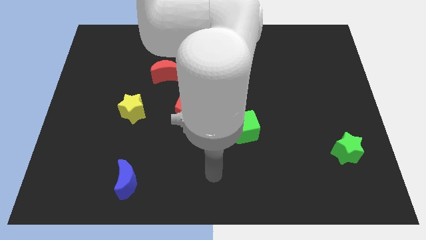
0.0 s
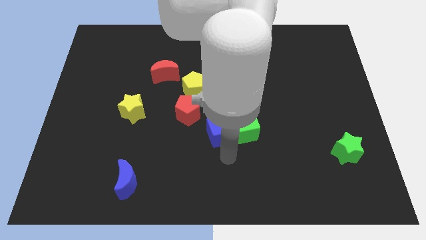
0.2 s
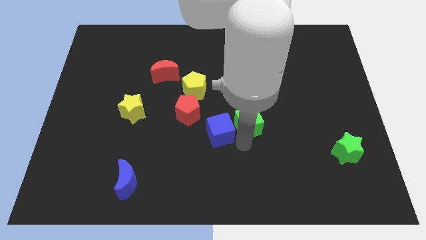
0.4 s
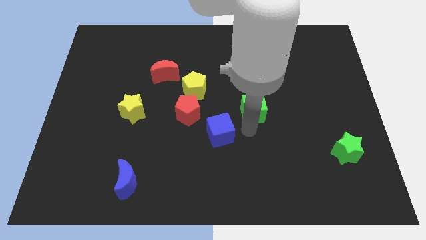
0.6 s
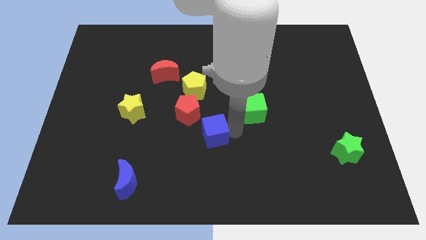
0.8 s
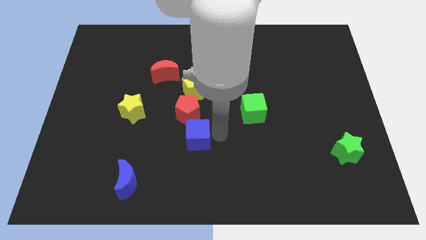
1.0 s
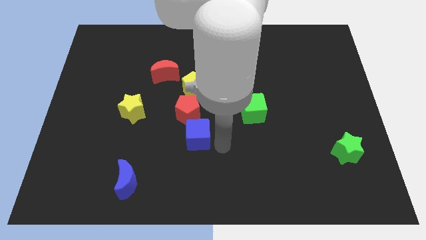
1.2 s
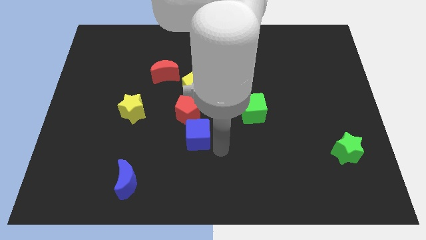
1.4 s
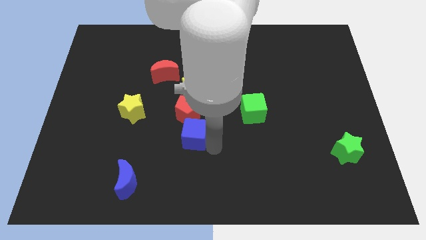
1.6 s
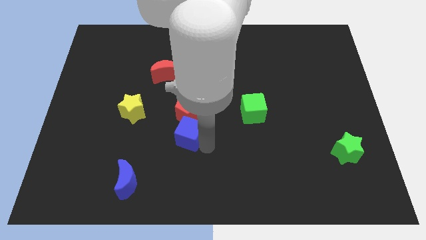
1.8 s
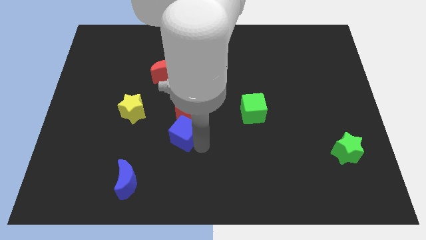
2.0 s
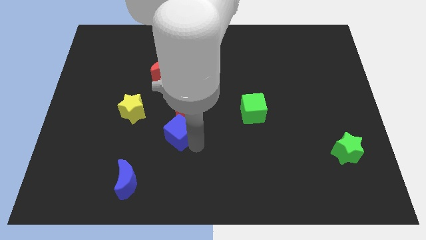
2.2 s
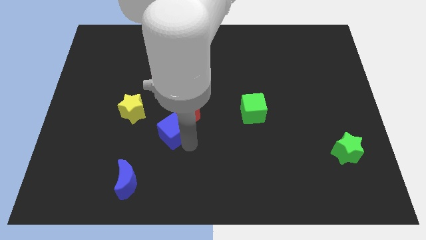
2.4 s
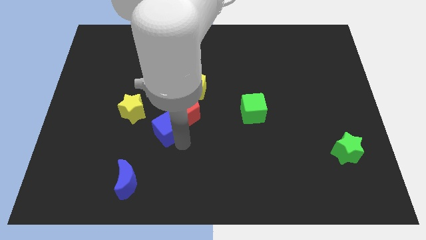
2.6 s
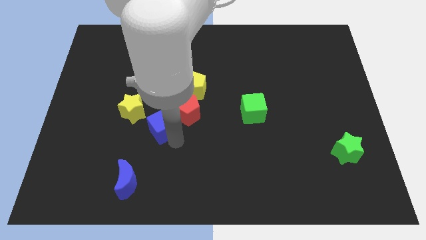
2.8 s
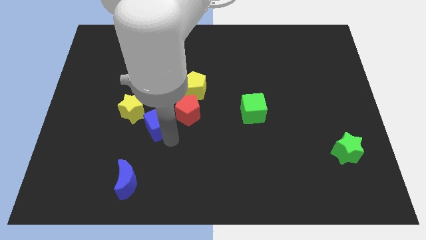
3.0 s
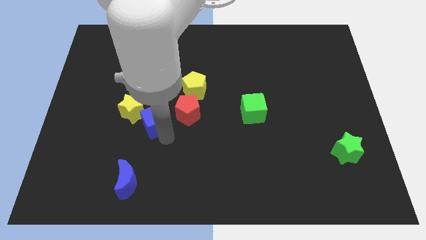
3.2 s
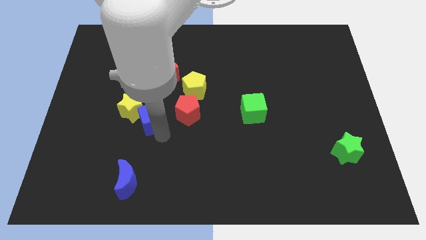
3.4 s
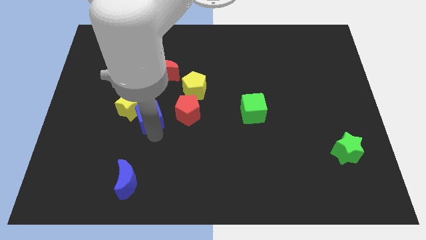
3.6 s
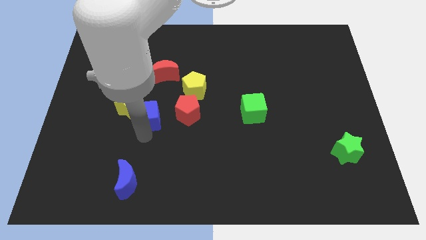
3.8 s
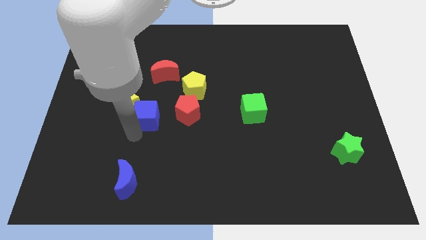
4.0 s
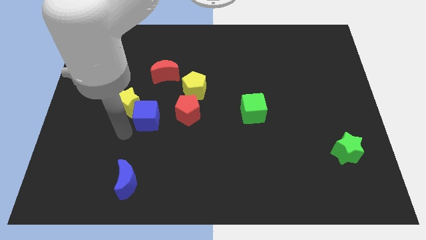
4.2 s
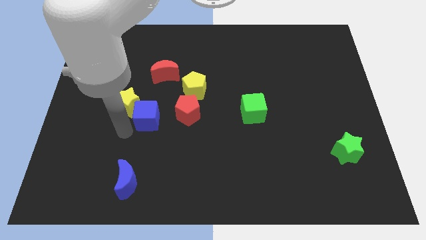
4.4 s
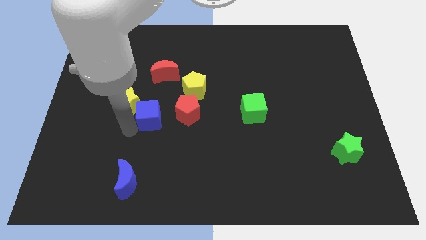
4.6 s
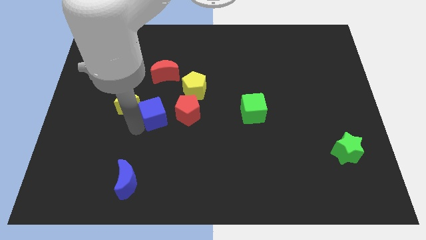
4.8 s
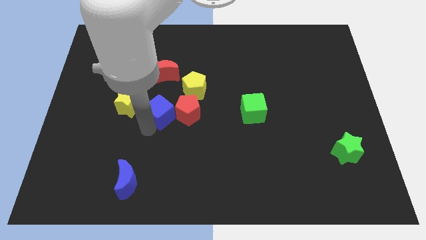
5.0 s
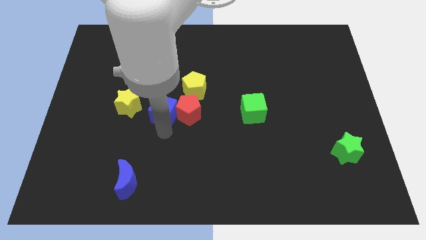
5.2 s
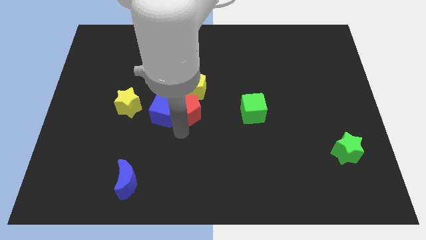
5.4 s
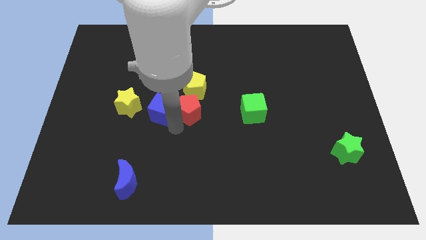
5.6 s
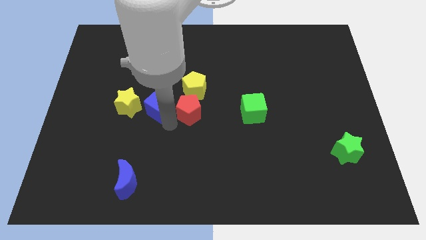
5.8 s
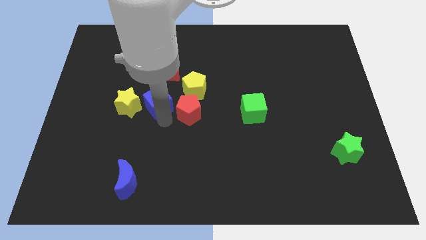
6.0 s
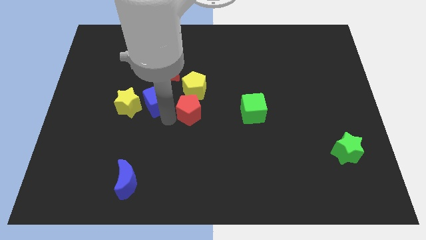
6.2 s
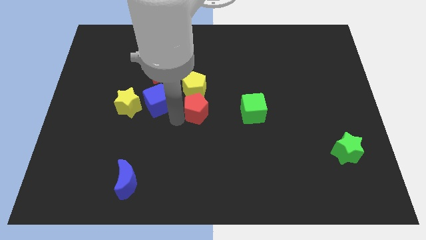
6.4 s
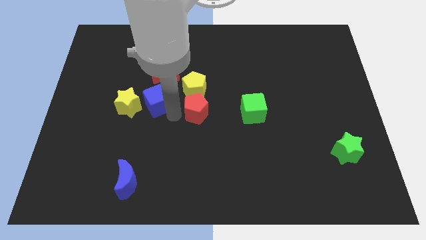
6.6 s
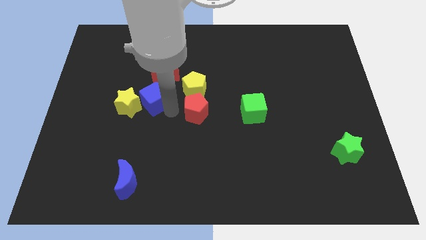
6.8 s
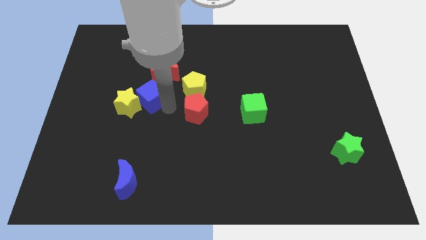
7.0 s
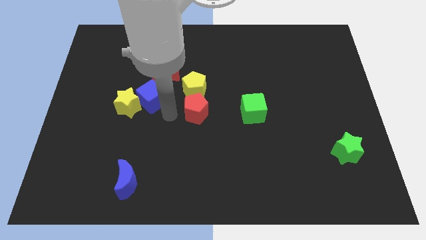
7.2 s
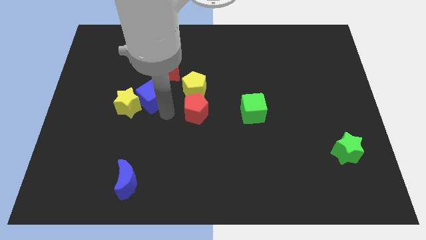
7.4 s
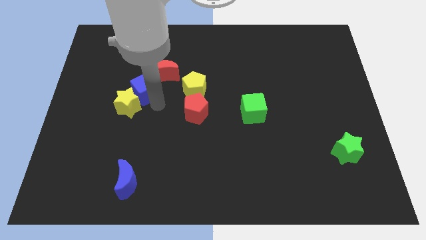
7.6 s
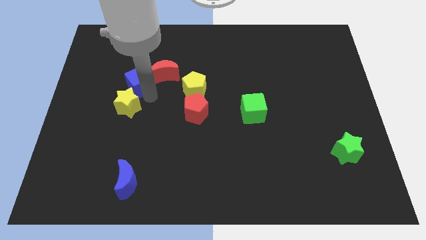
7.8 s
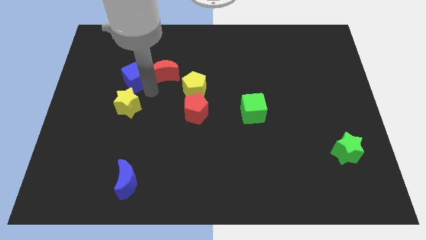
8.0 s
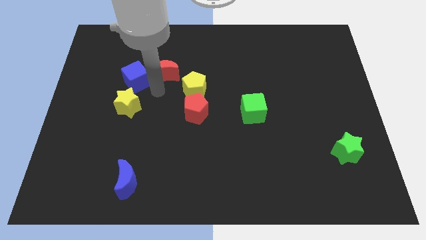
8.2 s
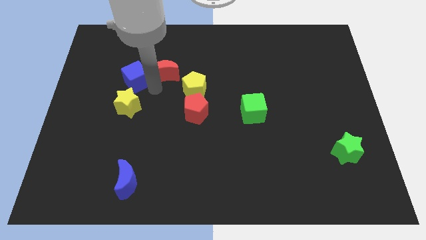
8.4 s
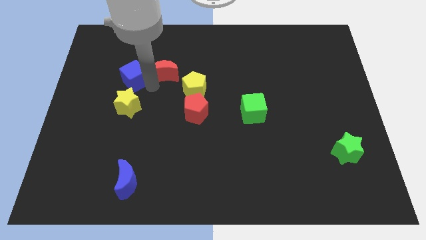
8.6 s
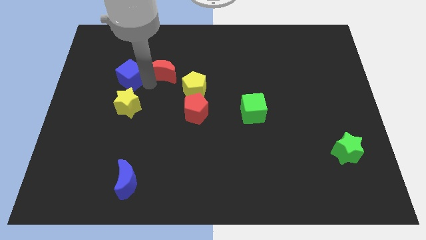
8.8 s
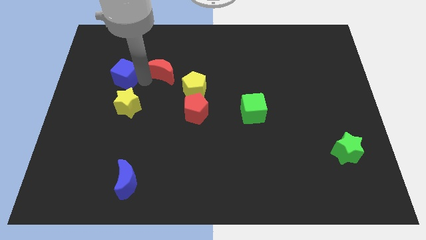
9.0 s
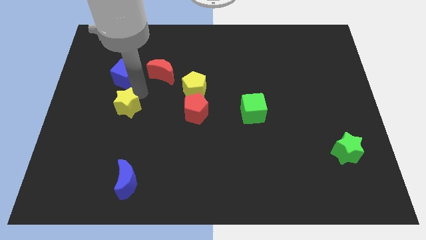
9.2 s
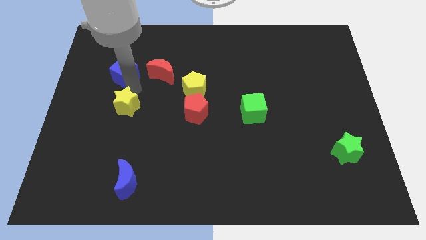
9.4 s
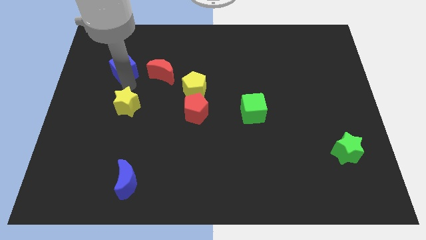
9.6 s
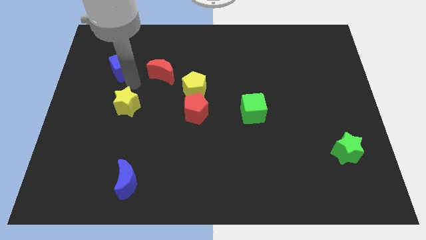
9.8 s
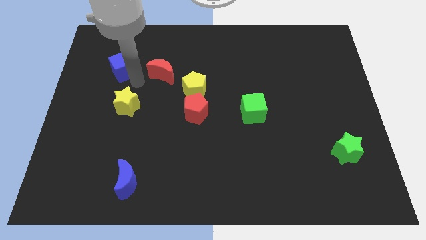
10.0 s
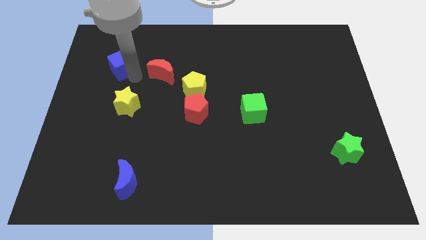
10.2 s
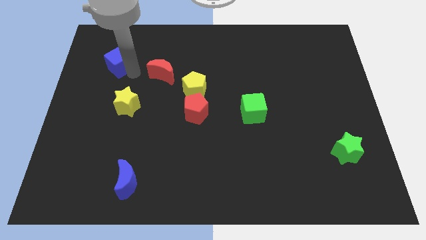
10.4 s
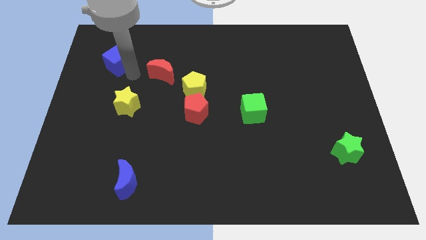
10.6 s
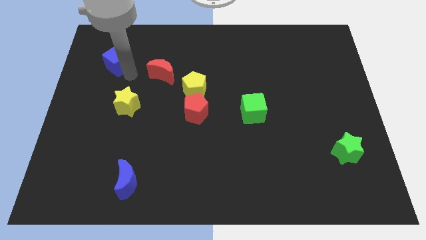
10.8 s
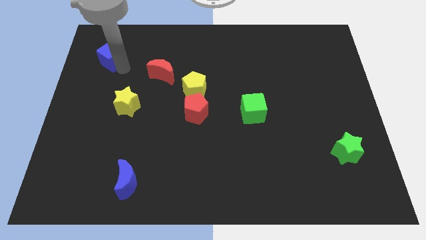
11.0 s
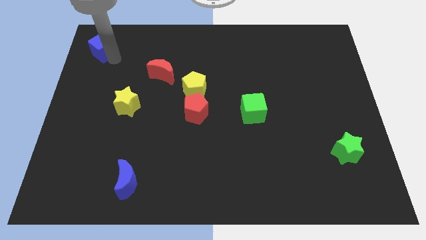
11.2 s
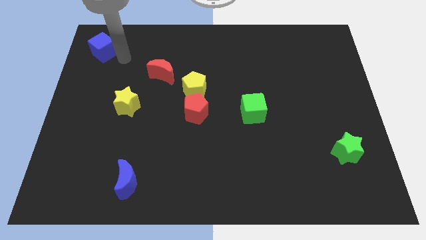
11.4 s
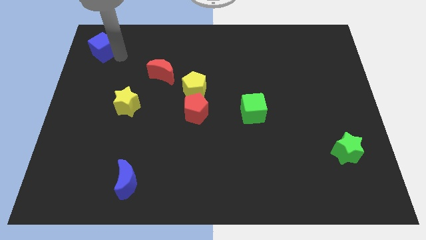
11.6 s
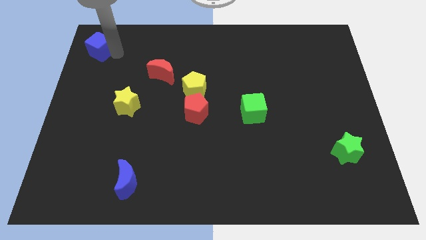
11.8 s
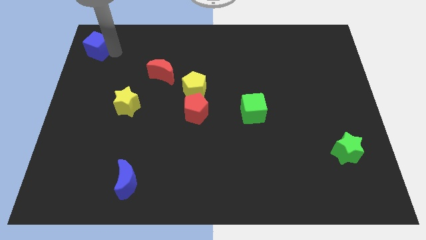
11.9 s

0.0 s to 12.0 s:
push the blue cube to the top left

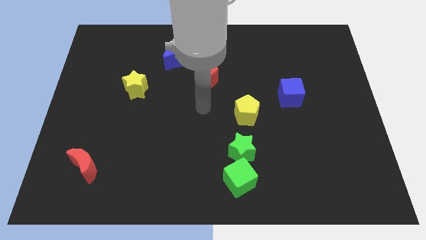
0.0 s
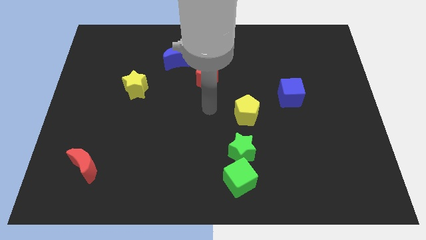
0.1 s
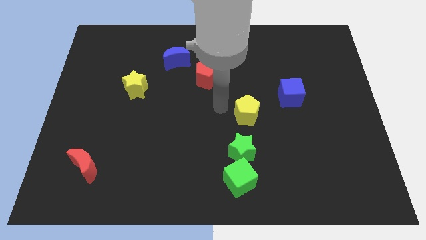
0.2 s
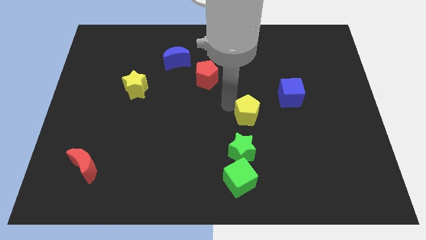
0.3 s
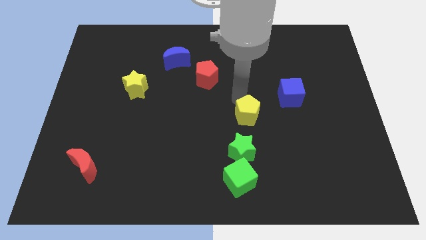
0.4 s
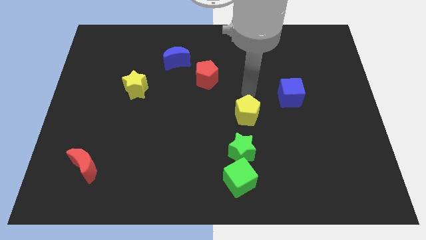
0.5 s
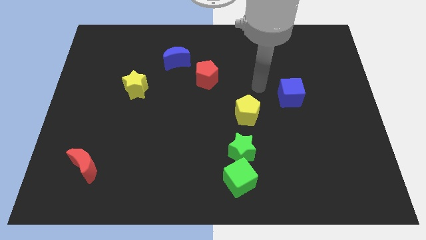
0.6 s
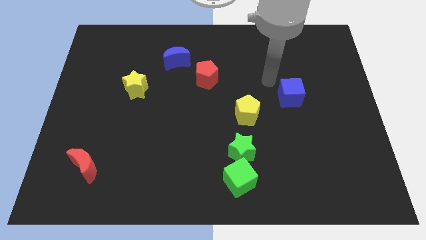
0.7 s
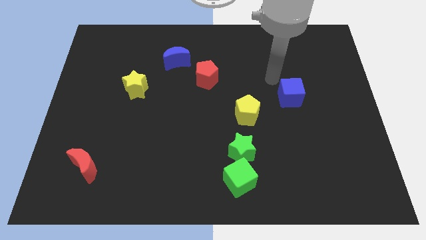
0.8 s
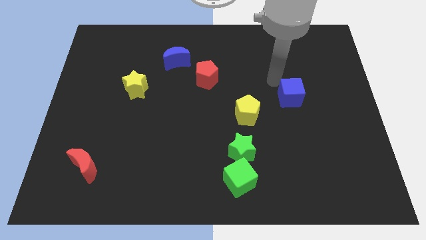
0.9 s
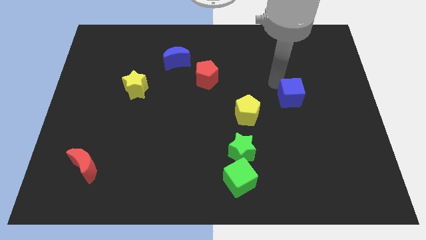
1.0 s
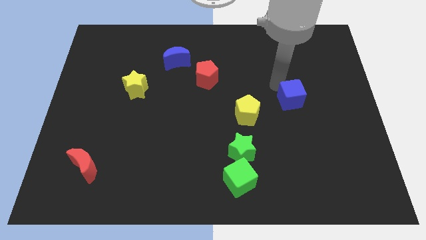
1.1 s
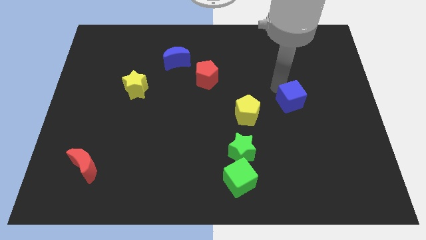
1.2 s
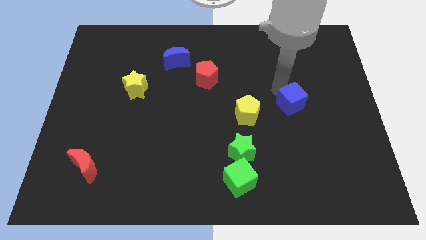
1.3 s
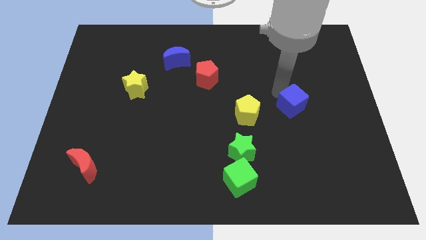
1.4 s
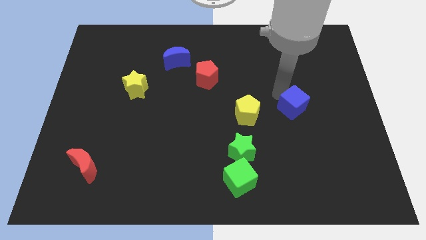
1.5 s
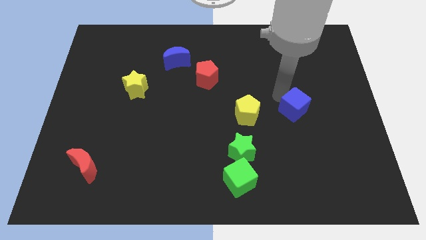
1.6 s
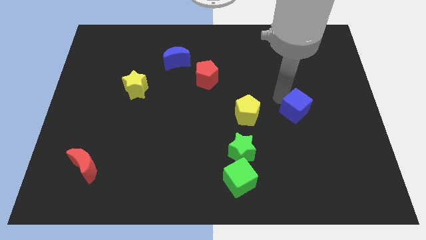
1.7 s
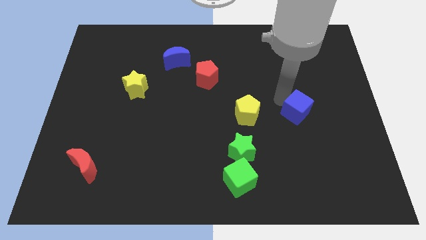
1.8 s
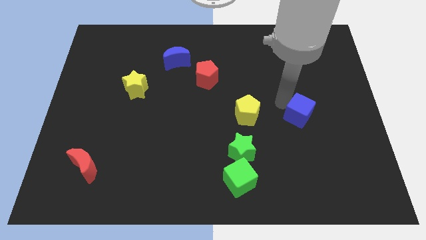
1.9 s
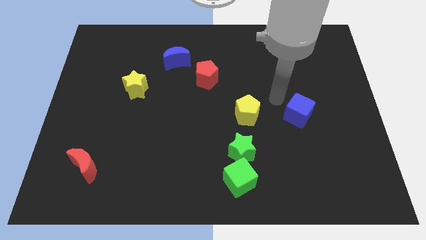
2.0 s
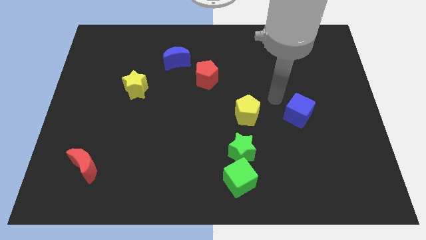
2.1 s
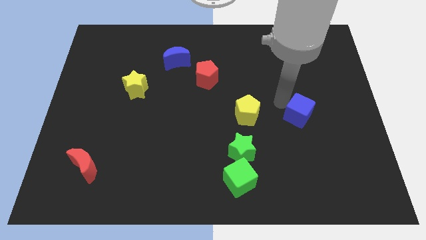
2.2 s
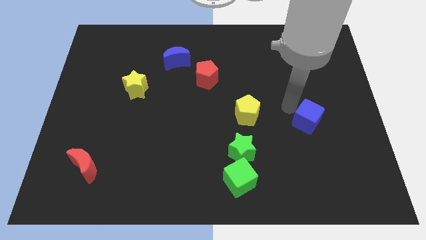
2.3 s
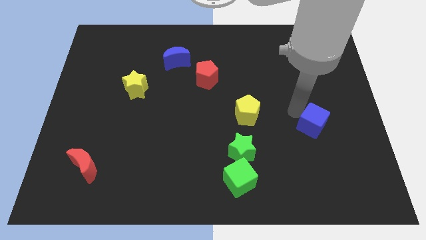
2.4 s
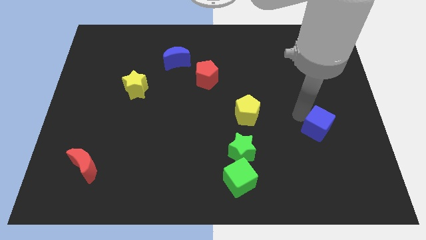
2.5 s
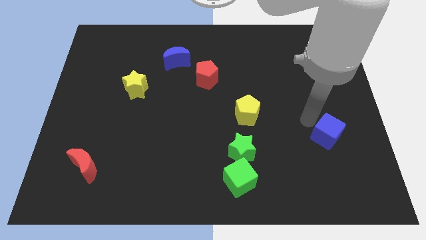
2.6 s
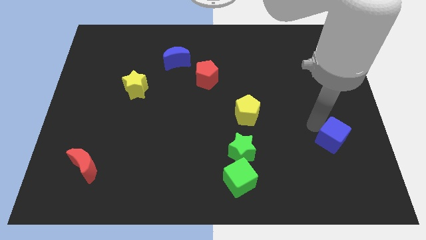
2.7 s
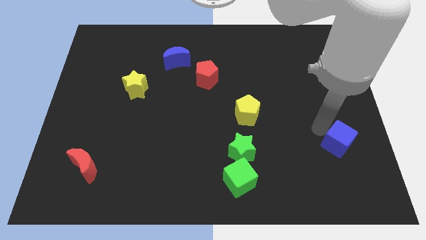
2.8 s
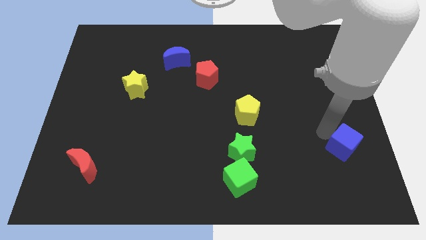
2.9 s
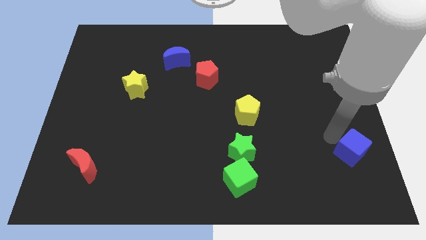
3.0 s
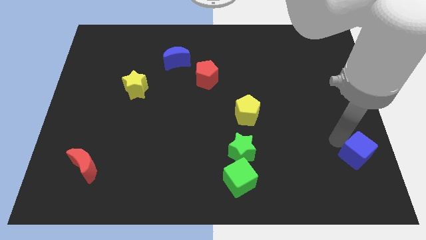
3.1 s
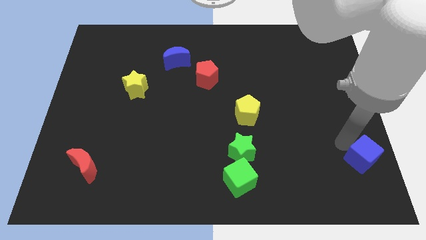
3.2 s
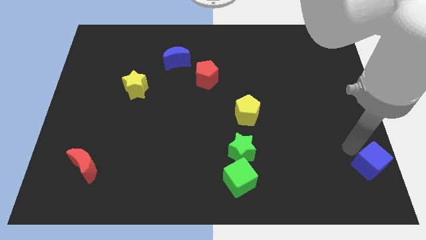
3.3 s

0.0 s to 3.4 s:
slide the blue cube to the bottom right
